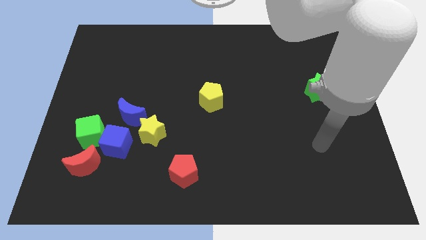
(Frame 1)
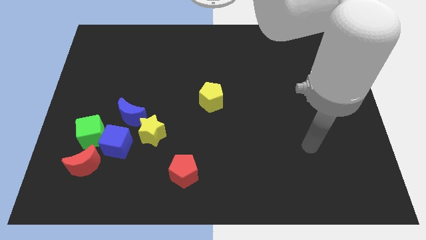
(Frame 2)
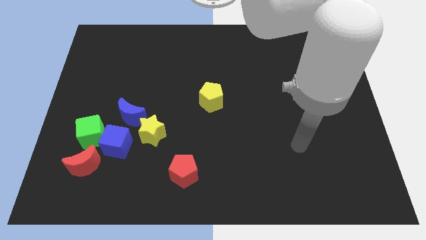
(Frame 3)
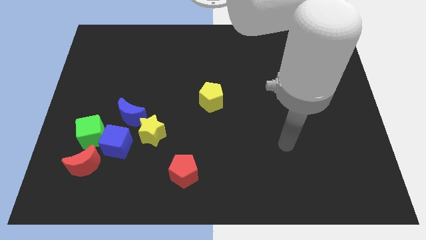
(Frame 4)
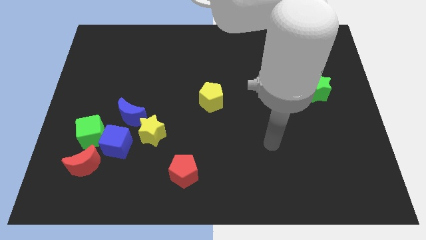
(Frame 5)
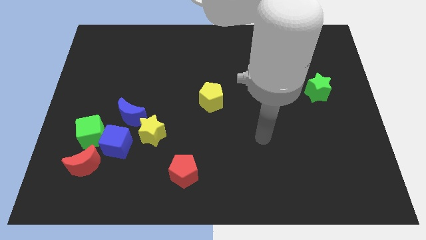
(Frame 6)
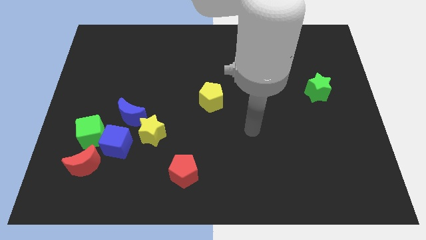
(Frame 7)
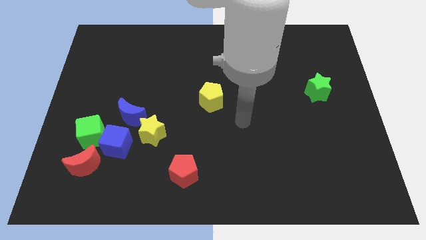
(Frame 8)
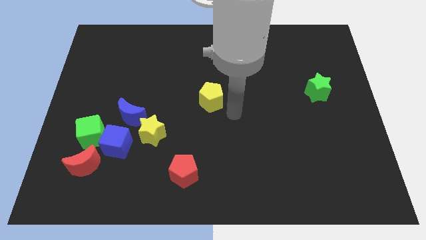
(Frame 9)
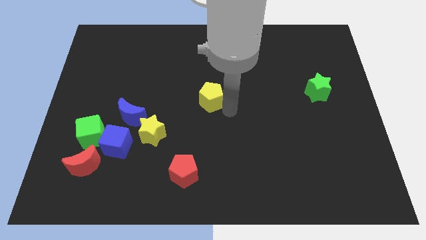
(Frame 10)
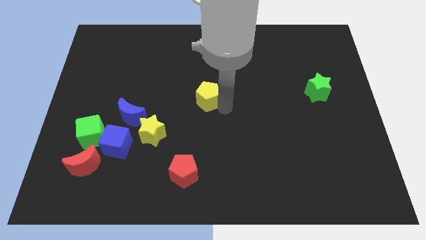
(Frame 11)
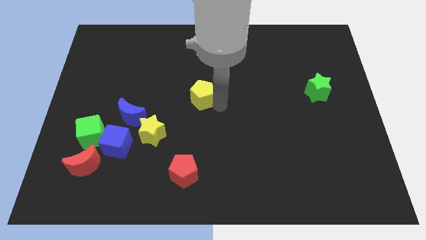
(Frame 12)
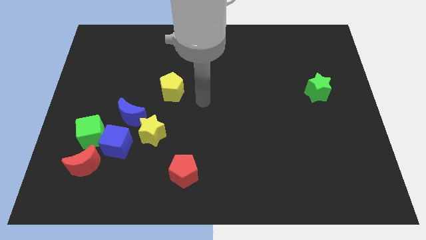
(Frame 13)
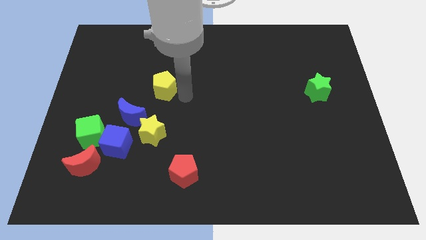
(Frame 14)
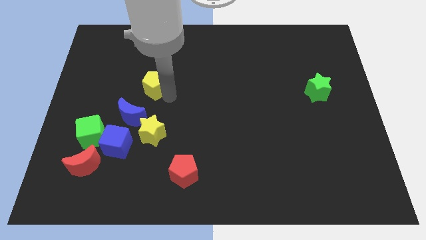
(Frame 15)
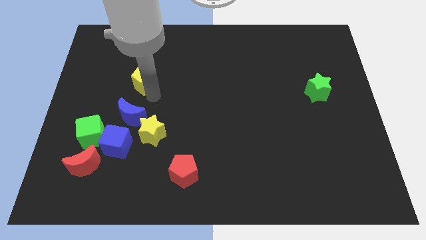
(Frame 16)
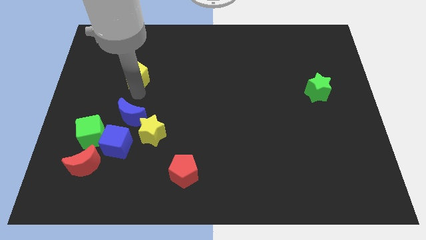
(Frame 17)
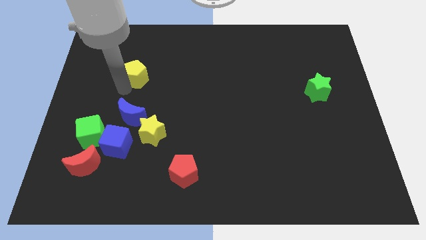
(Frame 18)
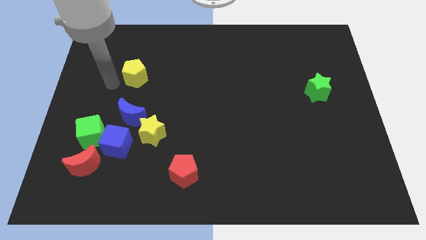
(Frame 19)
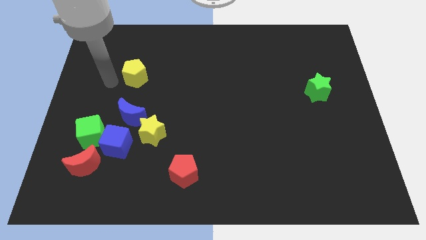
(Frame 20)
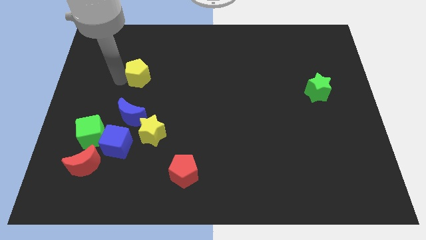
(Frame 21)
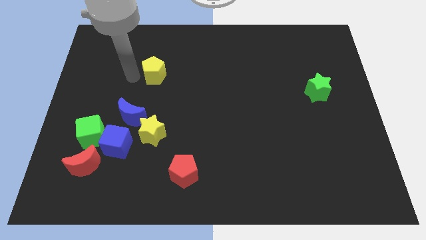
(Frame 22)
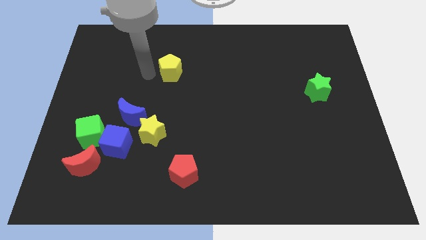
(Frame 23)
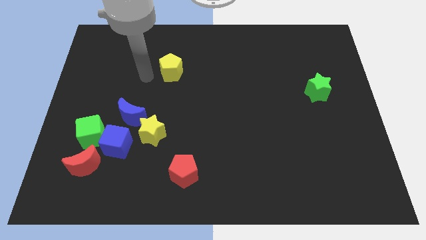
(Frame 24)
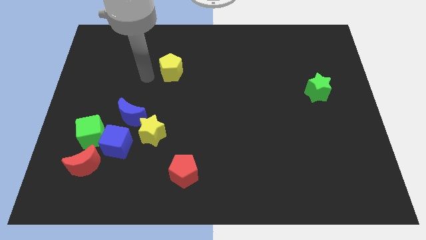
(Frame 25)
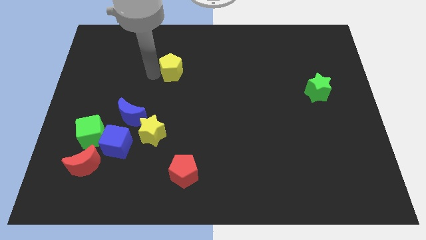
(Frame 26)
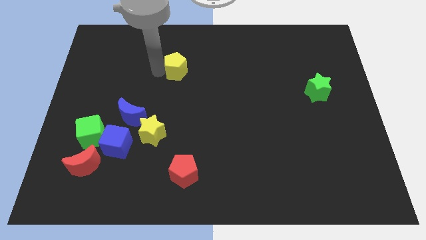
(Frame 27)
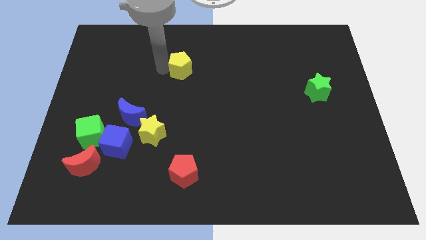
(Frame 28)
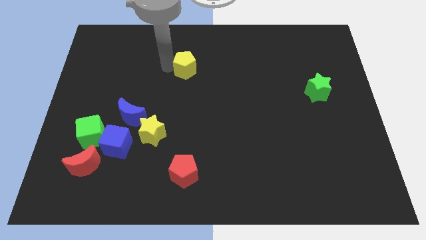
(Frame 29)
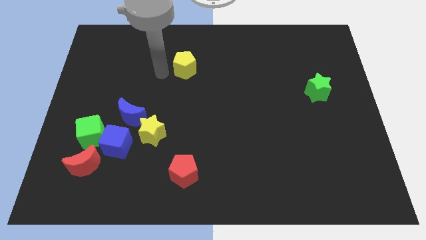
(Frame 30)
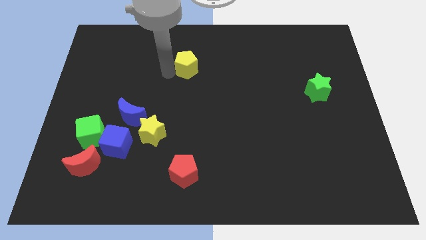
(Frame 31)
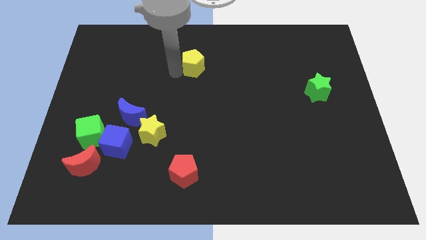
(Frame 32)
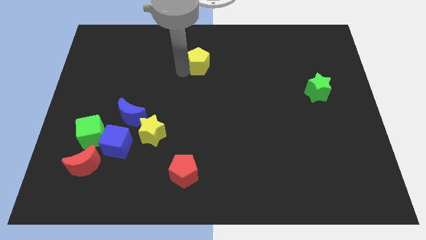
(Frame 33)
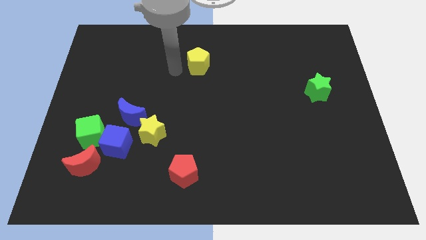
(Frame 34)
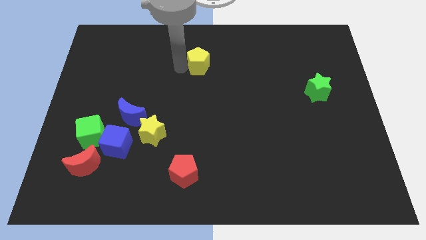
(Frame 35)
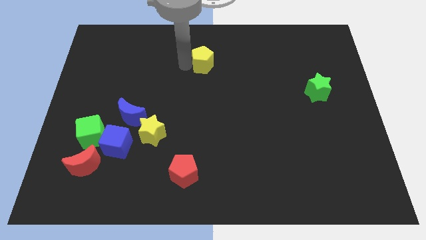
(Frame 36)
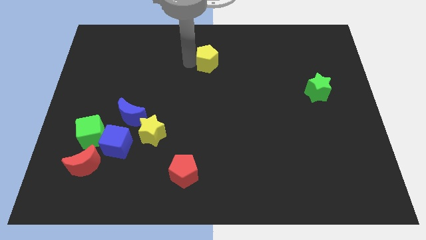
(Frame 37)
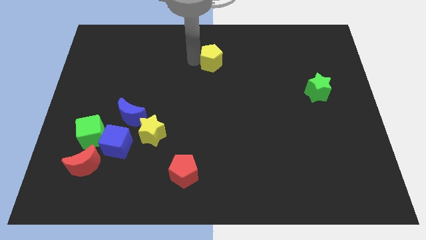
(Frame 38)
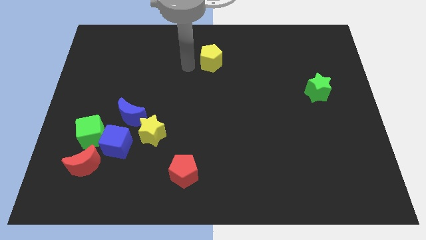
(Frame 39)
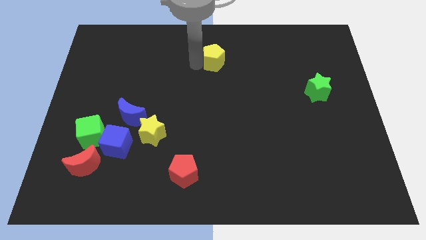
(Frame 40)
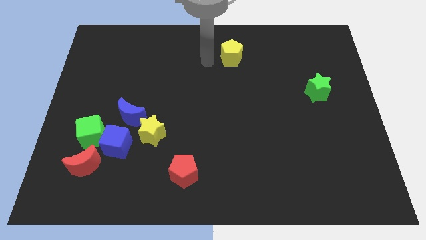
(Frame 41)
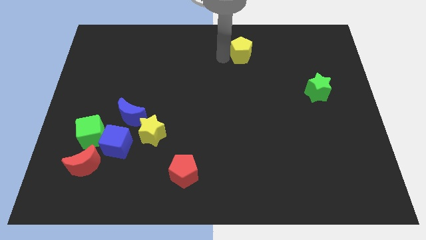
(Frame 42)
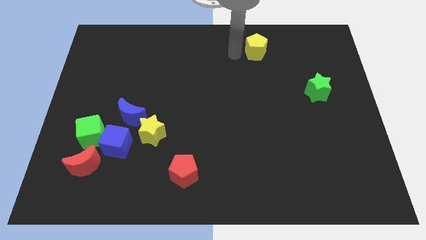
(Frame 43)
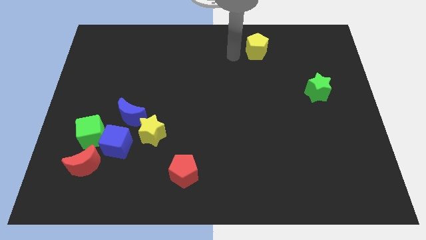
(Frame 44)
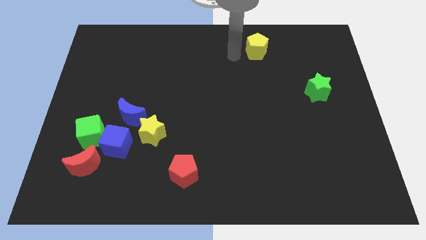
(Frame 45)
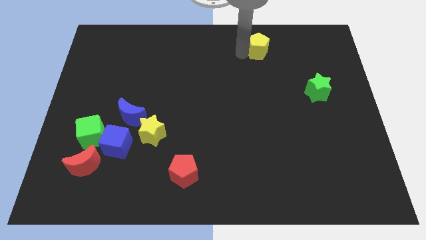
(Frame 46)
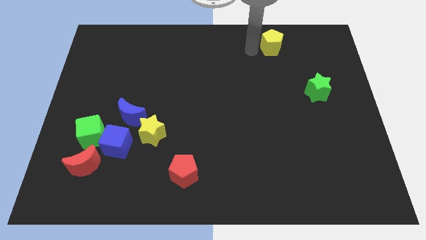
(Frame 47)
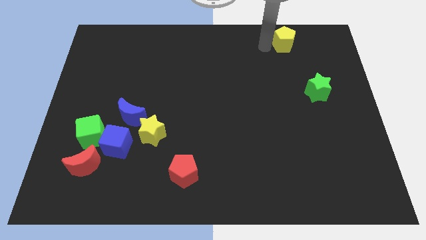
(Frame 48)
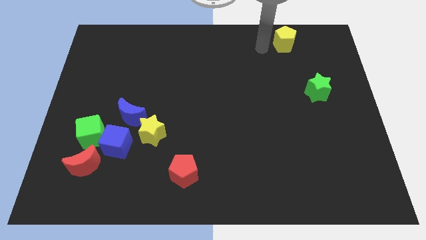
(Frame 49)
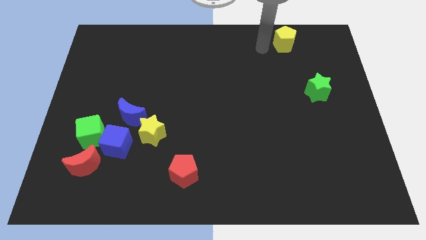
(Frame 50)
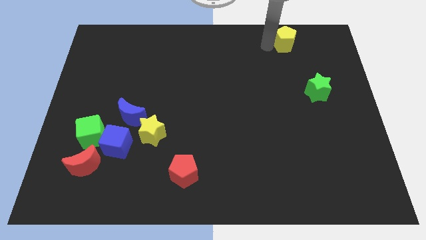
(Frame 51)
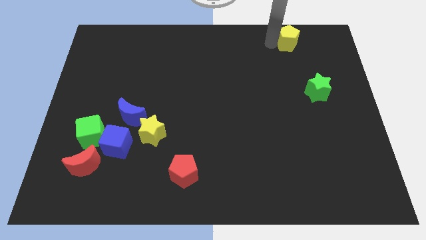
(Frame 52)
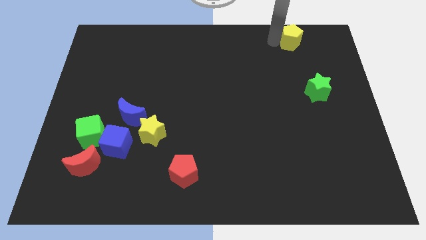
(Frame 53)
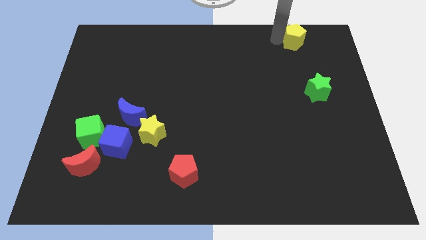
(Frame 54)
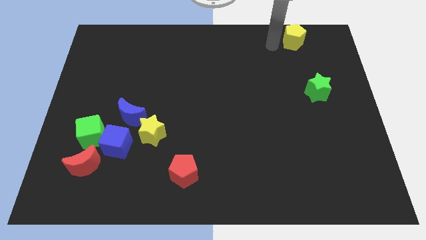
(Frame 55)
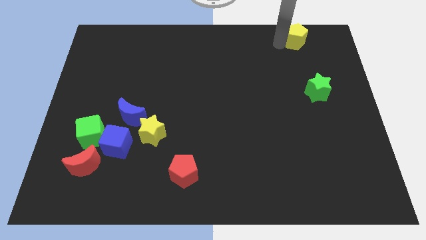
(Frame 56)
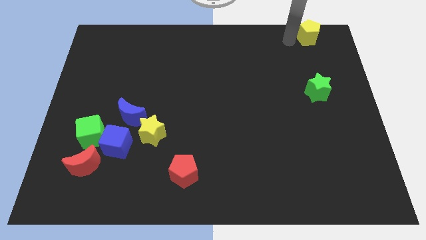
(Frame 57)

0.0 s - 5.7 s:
put the yellow pentagon to the top right of the board

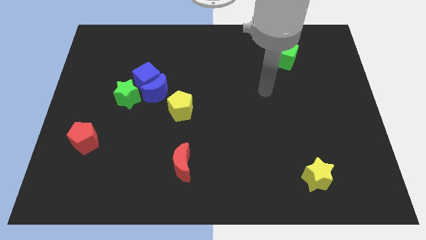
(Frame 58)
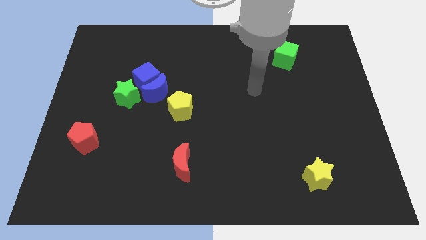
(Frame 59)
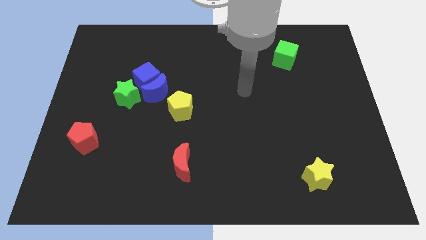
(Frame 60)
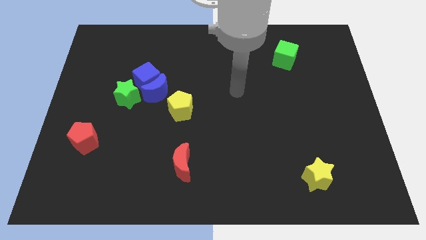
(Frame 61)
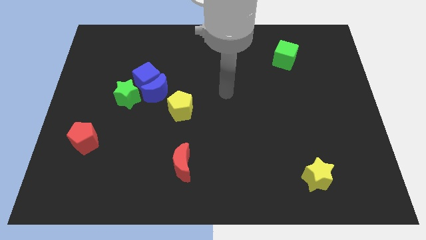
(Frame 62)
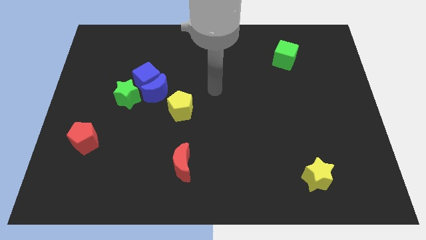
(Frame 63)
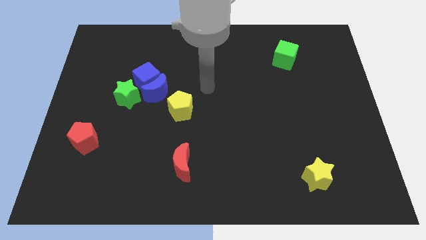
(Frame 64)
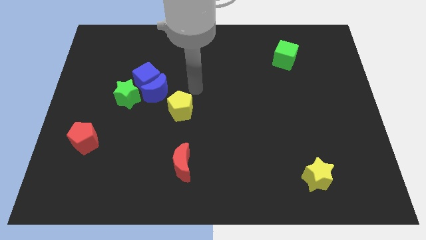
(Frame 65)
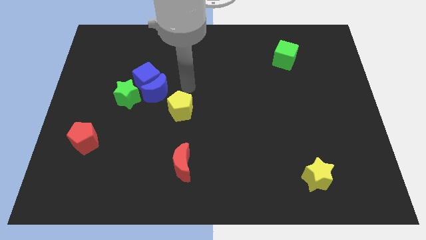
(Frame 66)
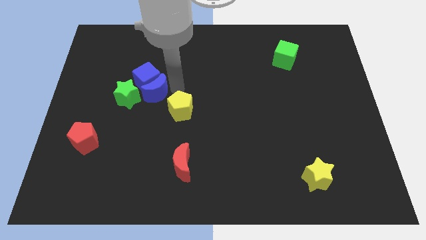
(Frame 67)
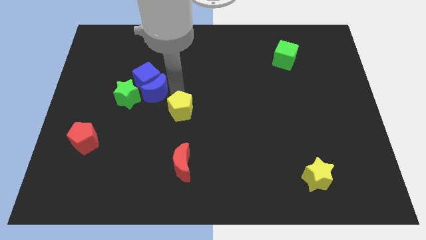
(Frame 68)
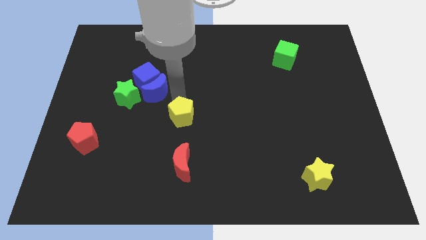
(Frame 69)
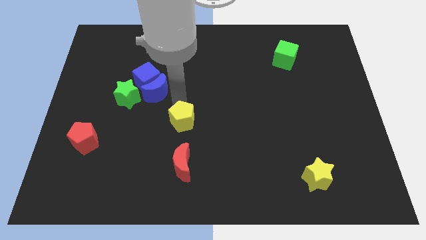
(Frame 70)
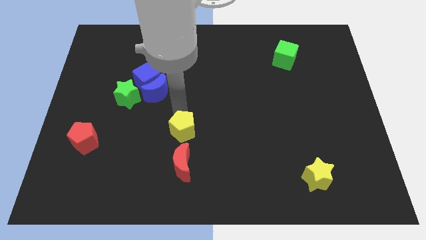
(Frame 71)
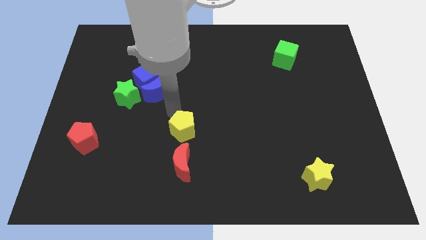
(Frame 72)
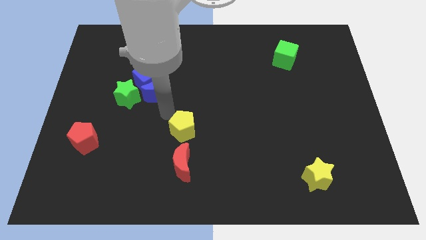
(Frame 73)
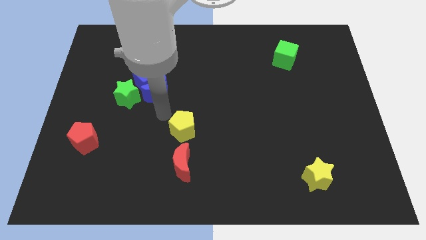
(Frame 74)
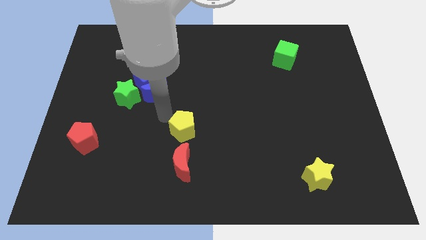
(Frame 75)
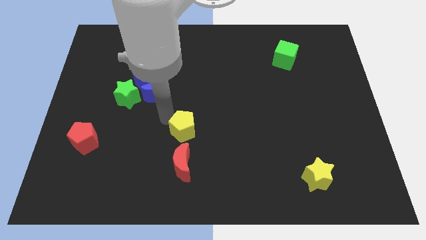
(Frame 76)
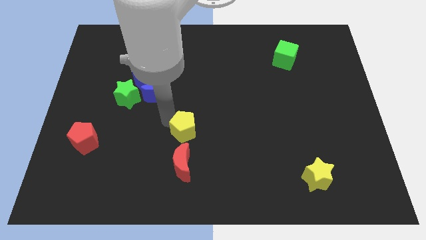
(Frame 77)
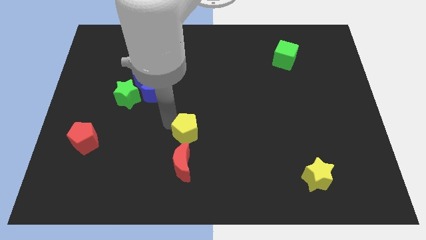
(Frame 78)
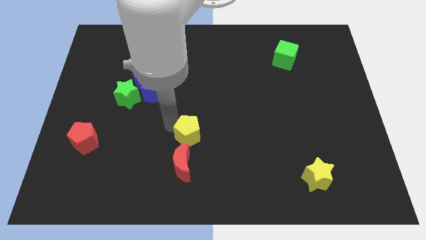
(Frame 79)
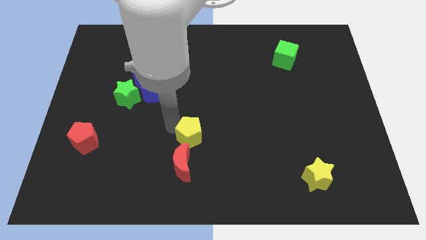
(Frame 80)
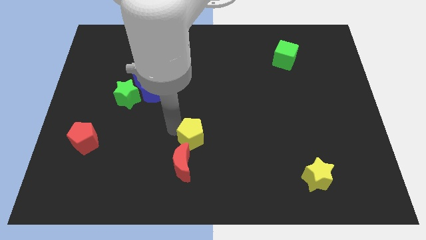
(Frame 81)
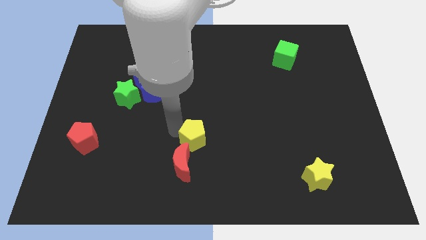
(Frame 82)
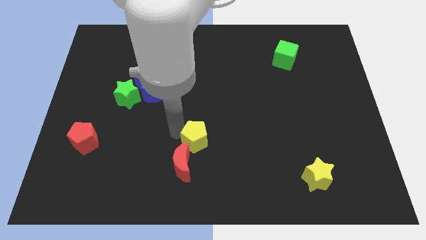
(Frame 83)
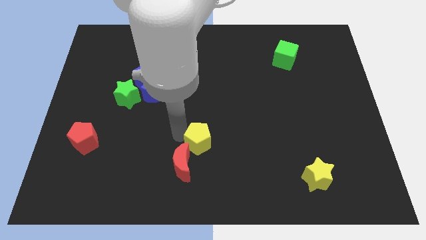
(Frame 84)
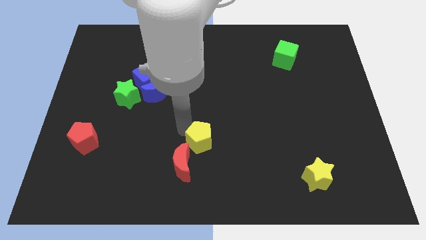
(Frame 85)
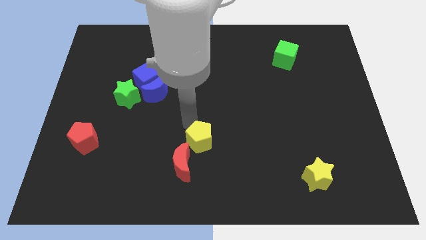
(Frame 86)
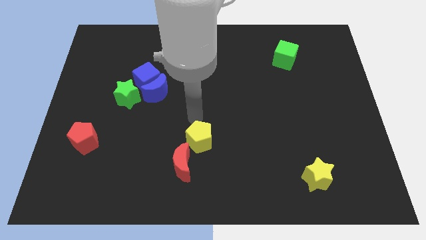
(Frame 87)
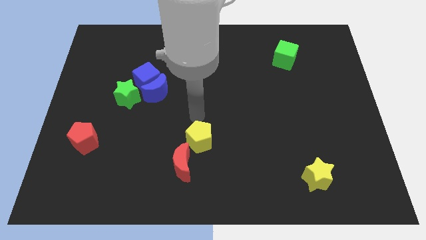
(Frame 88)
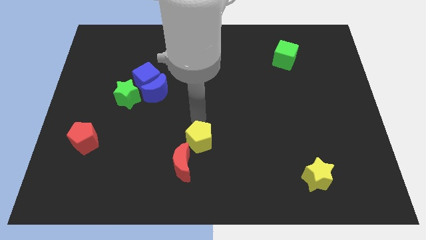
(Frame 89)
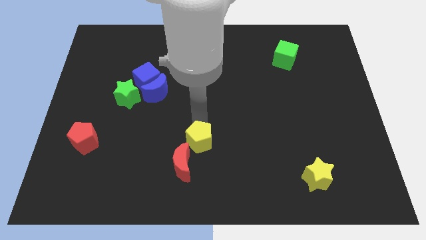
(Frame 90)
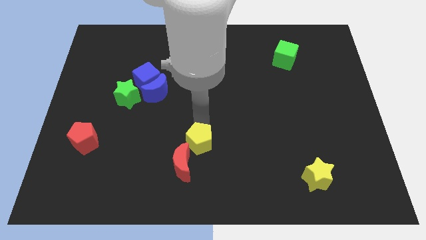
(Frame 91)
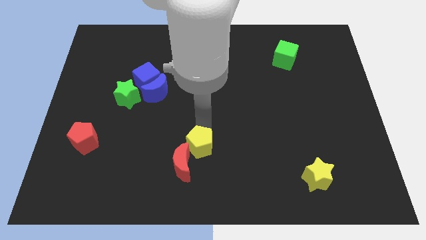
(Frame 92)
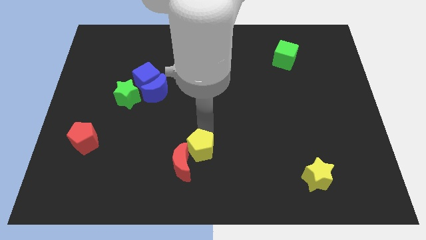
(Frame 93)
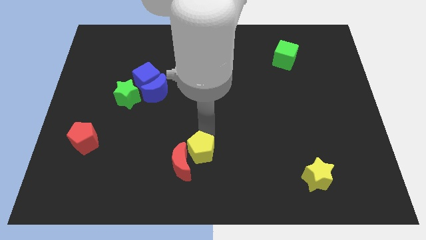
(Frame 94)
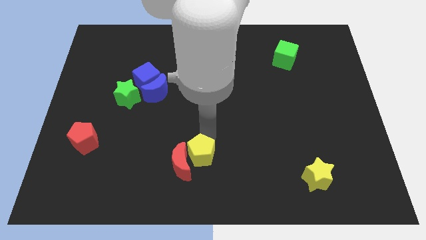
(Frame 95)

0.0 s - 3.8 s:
slide the yellow pentagon to the bottom
